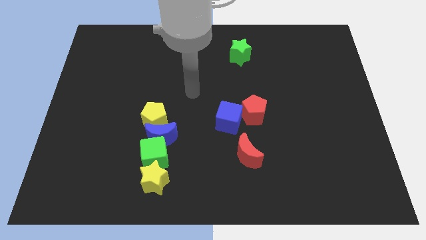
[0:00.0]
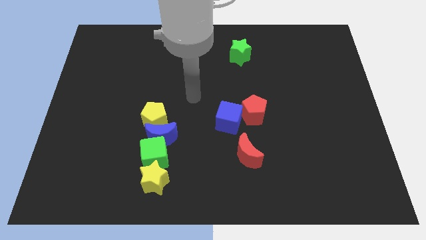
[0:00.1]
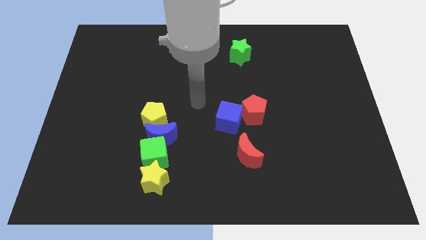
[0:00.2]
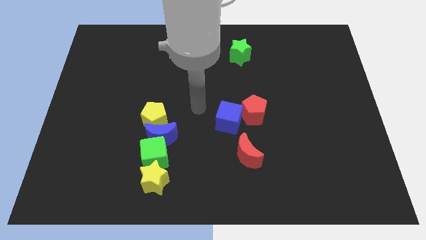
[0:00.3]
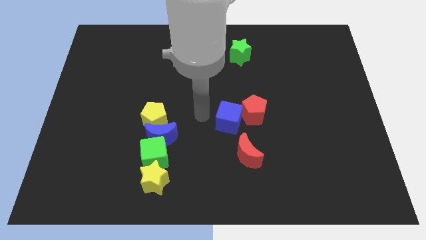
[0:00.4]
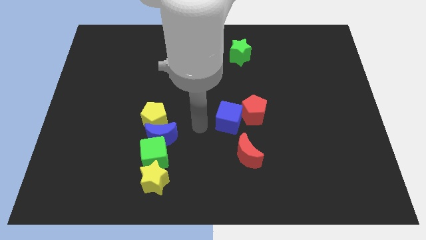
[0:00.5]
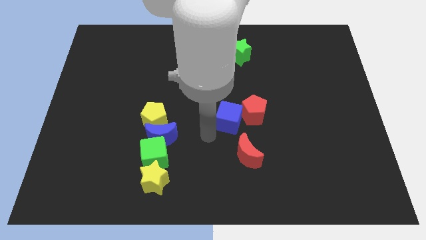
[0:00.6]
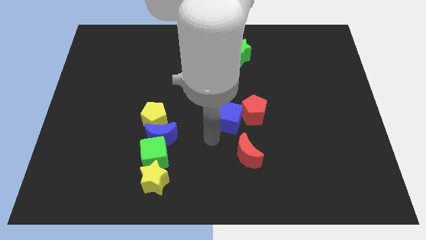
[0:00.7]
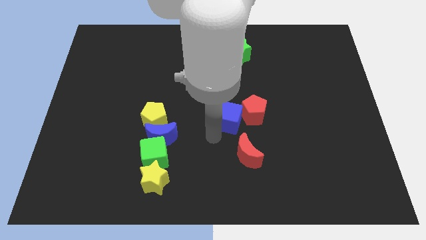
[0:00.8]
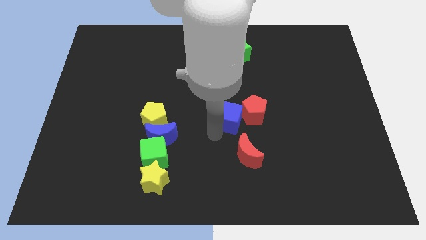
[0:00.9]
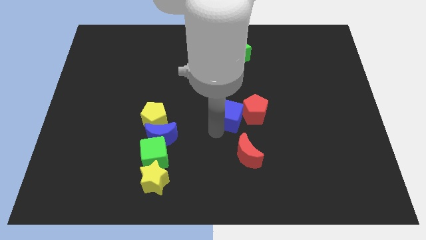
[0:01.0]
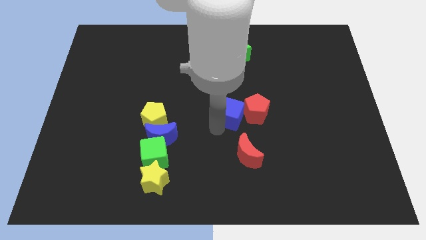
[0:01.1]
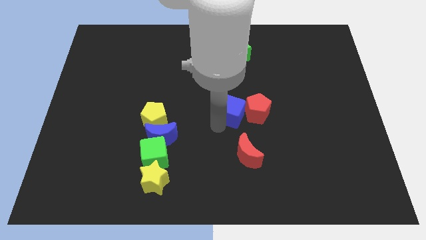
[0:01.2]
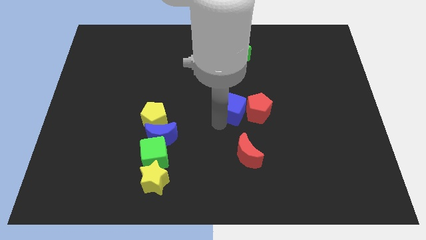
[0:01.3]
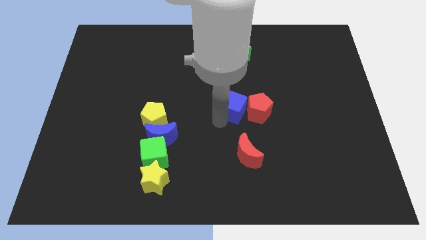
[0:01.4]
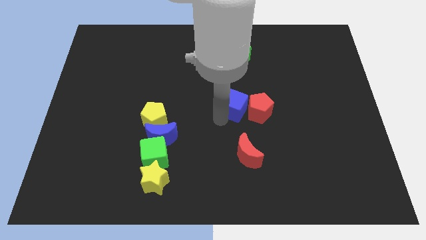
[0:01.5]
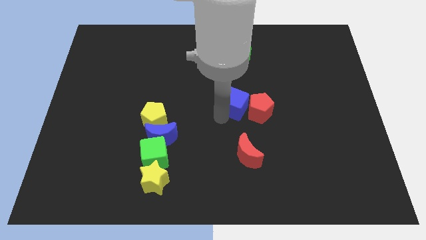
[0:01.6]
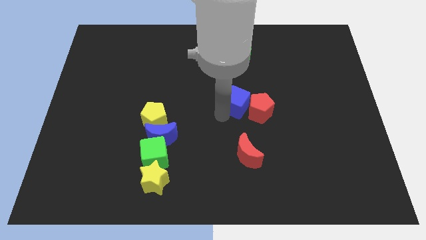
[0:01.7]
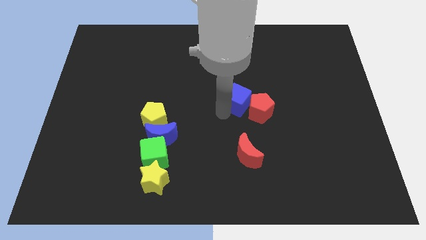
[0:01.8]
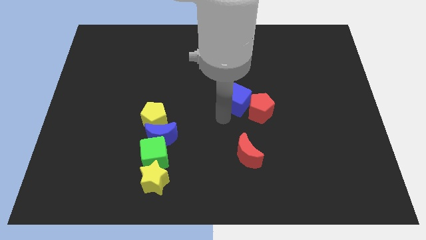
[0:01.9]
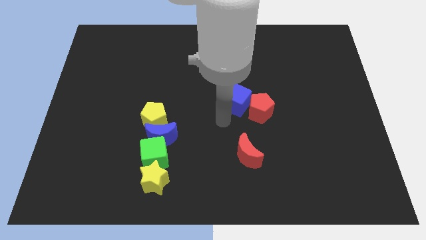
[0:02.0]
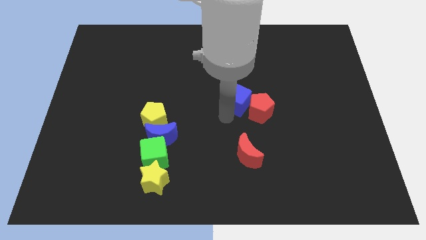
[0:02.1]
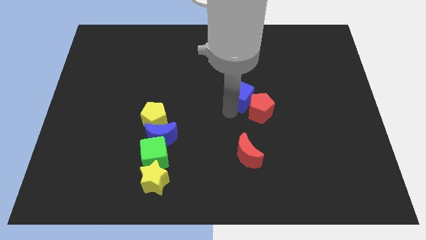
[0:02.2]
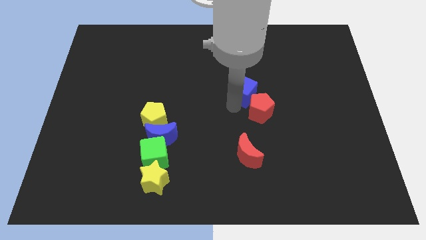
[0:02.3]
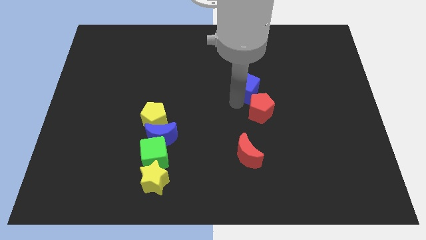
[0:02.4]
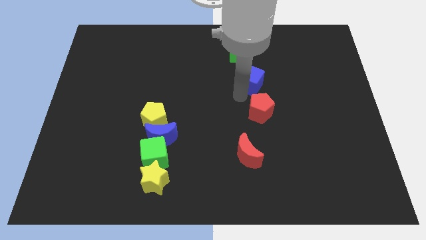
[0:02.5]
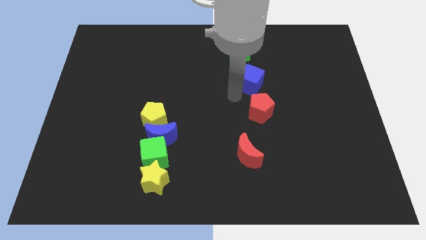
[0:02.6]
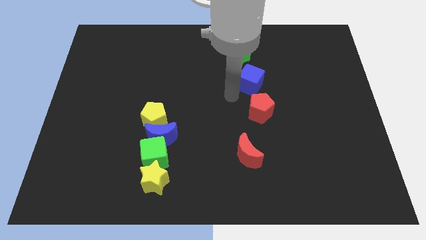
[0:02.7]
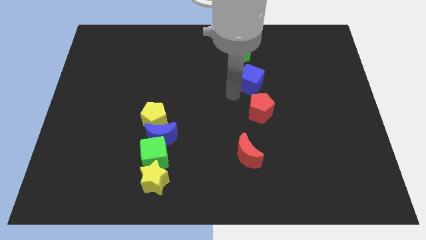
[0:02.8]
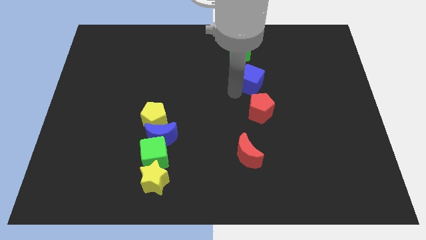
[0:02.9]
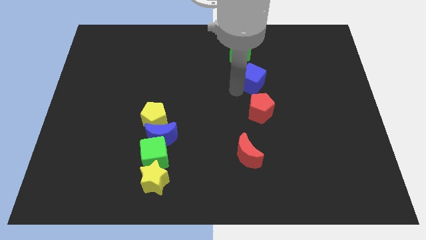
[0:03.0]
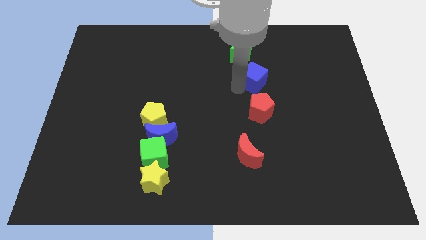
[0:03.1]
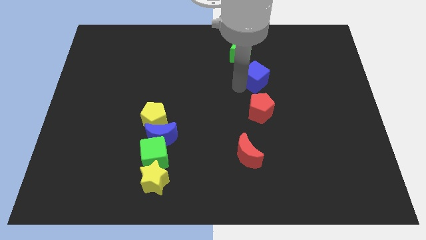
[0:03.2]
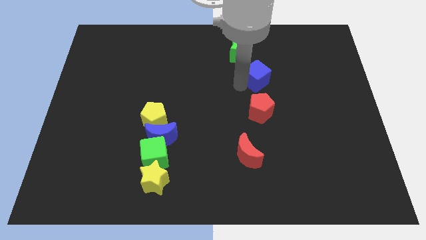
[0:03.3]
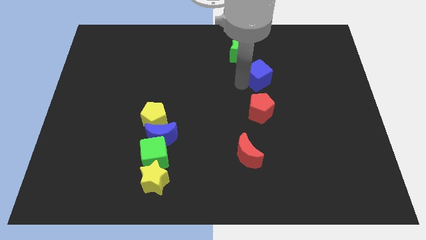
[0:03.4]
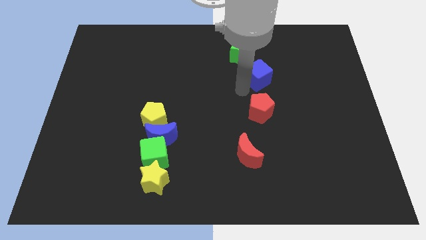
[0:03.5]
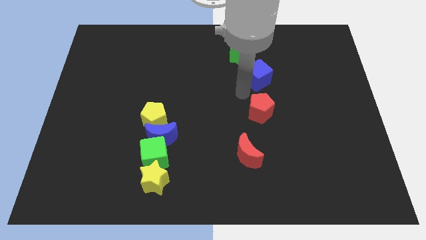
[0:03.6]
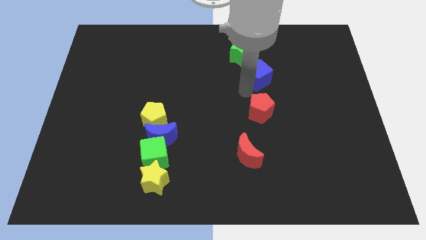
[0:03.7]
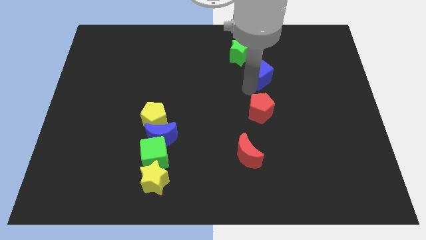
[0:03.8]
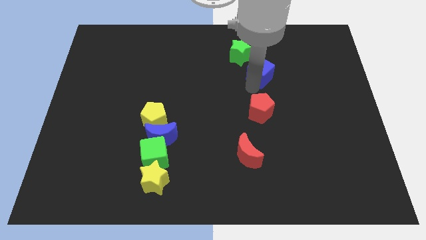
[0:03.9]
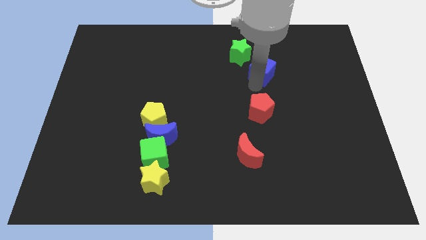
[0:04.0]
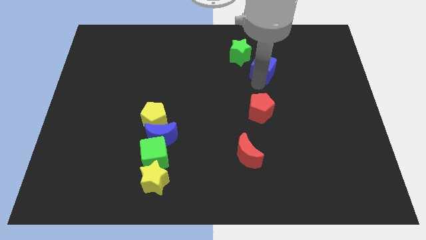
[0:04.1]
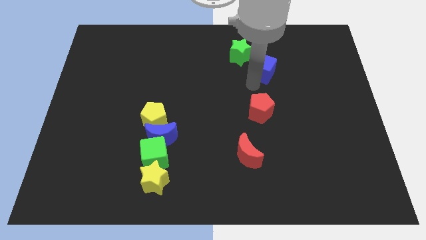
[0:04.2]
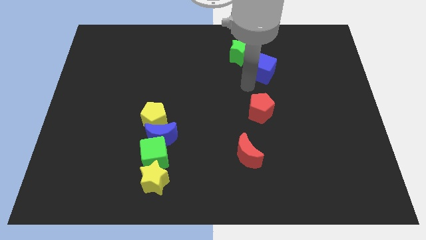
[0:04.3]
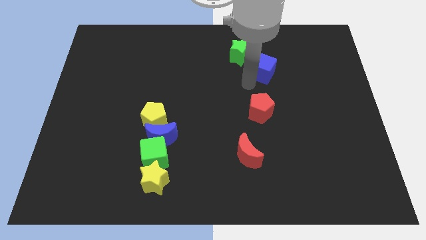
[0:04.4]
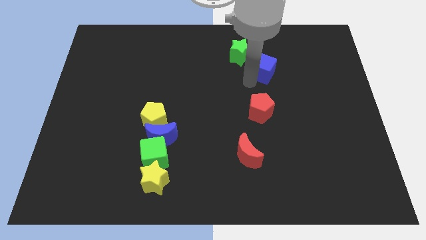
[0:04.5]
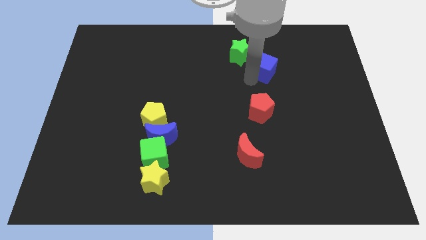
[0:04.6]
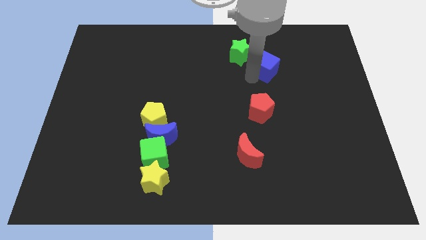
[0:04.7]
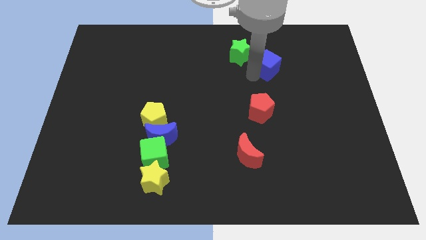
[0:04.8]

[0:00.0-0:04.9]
put the blue cube to the right of the green star

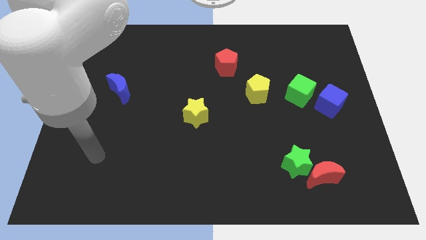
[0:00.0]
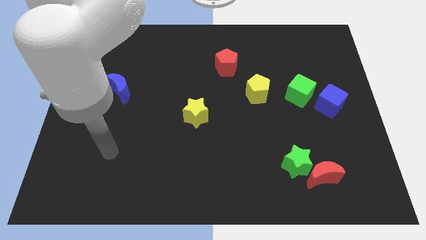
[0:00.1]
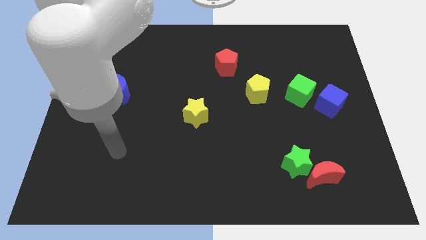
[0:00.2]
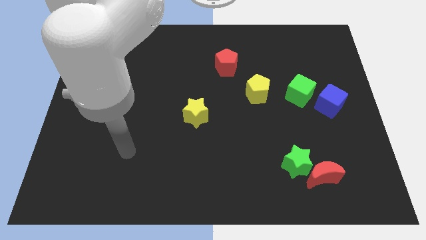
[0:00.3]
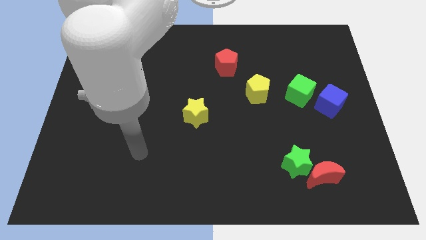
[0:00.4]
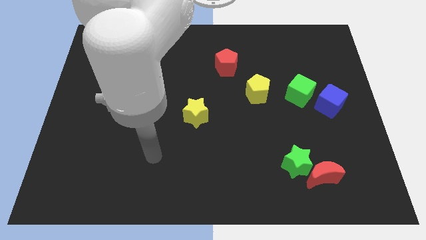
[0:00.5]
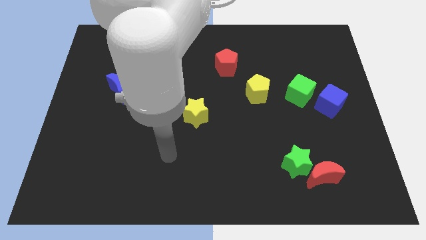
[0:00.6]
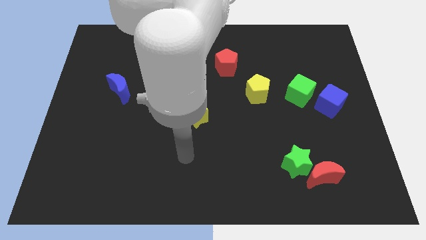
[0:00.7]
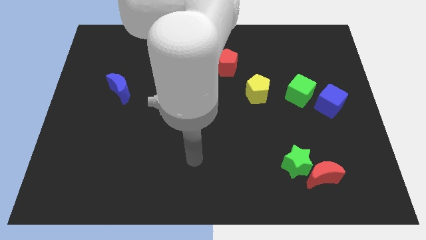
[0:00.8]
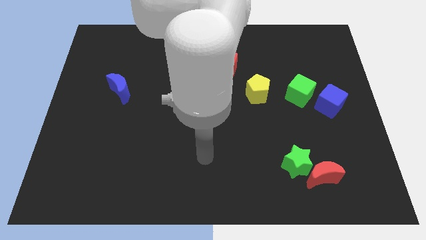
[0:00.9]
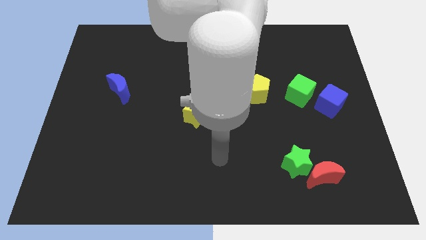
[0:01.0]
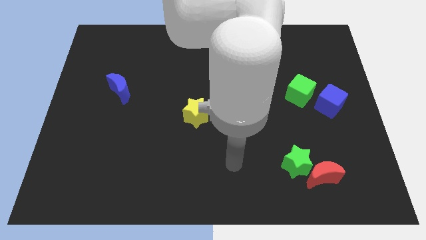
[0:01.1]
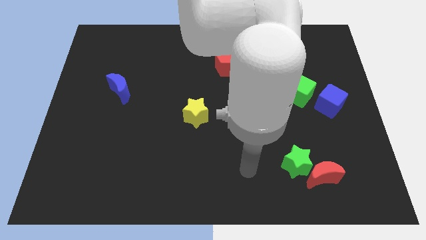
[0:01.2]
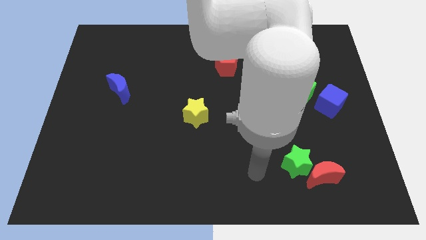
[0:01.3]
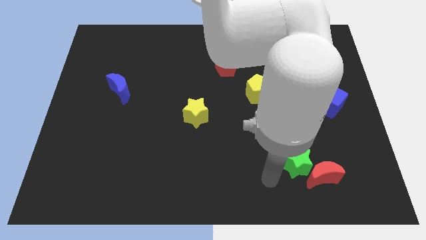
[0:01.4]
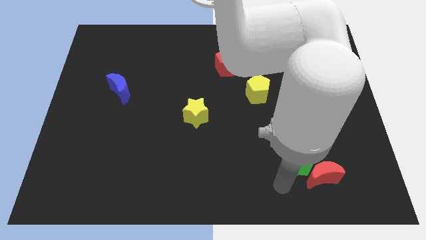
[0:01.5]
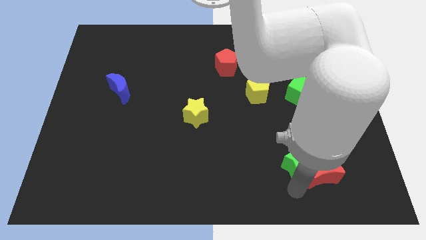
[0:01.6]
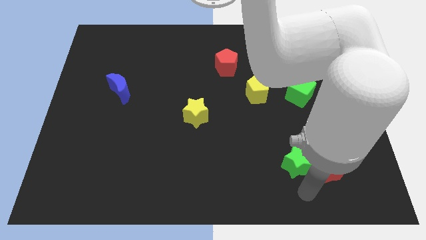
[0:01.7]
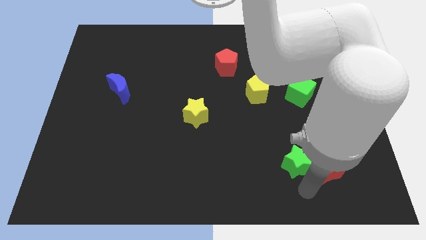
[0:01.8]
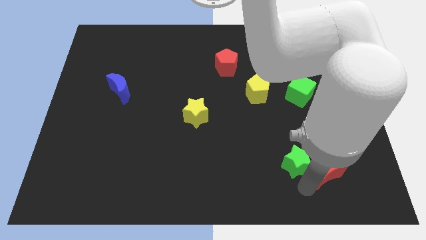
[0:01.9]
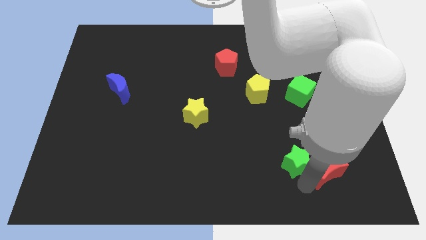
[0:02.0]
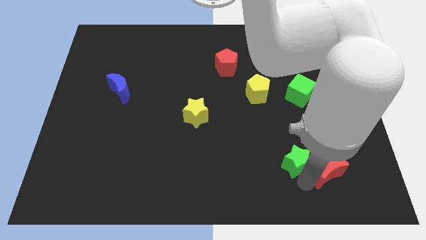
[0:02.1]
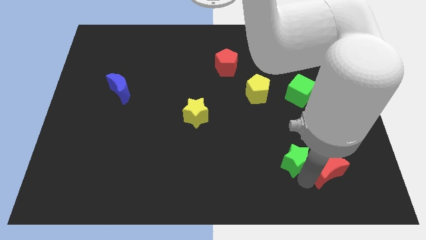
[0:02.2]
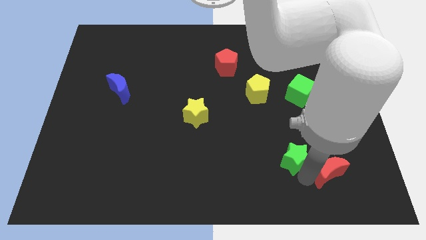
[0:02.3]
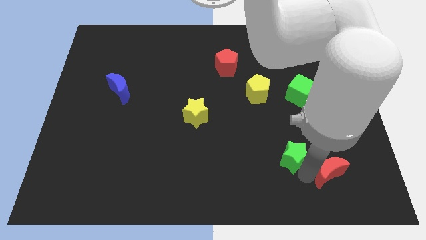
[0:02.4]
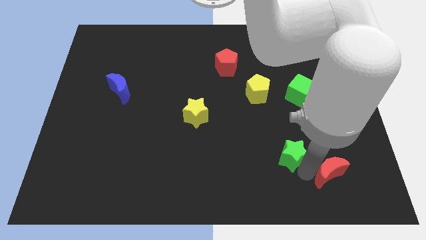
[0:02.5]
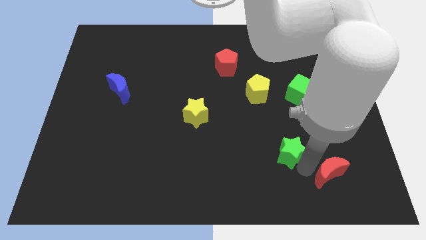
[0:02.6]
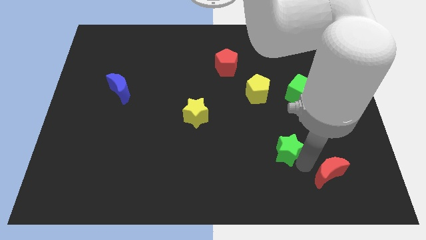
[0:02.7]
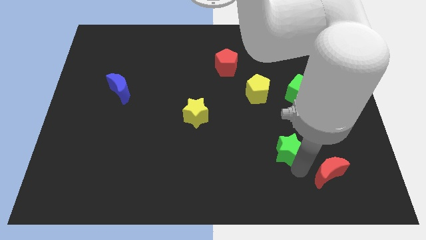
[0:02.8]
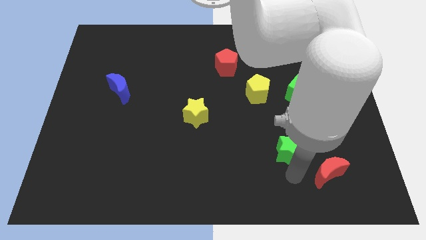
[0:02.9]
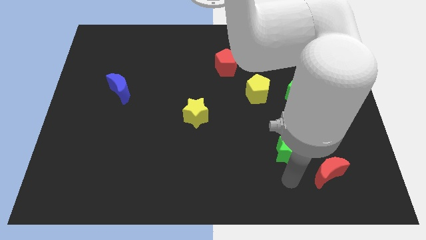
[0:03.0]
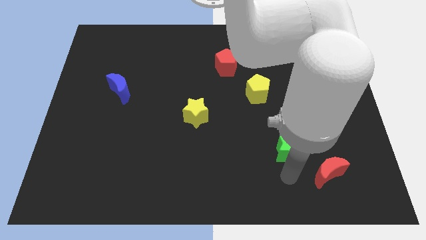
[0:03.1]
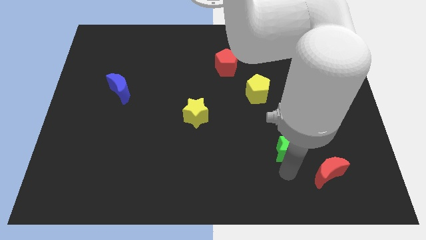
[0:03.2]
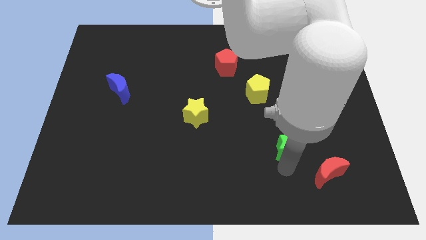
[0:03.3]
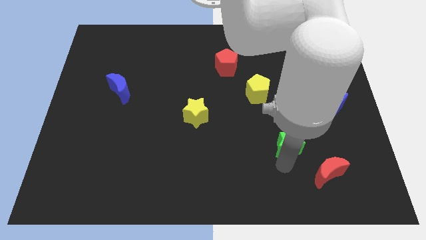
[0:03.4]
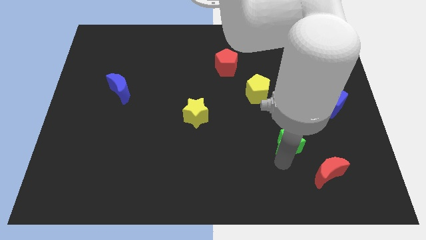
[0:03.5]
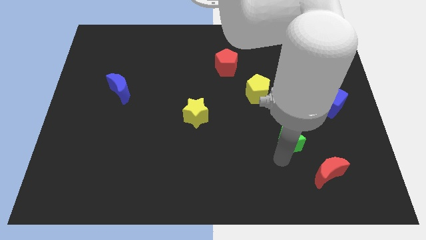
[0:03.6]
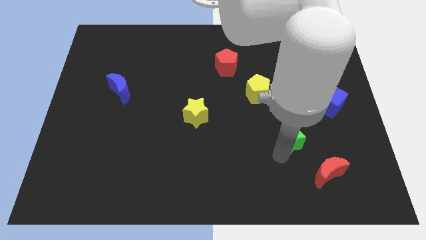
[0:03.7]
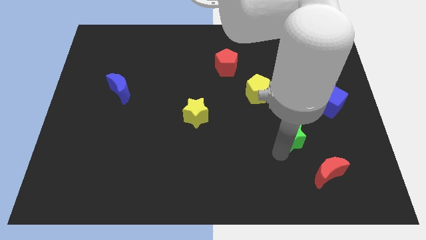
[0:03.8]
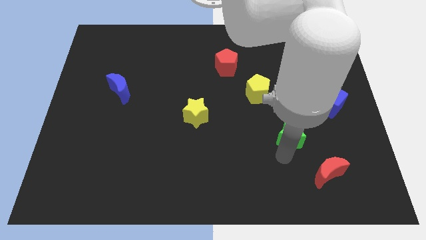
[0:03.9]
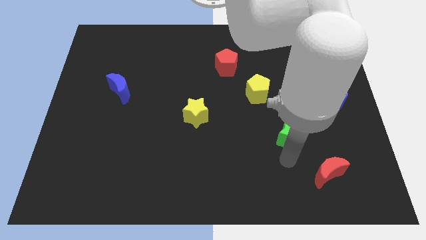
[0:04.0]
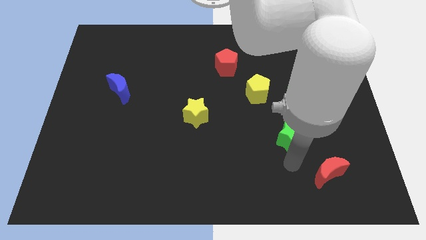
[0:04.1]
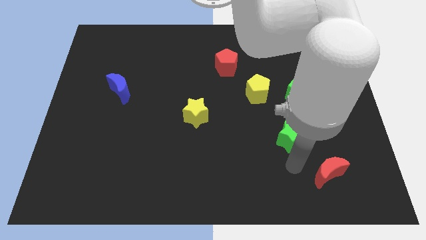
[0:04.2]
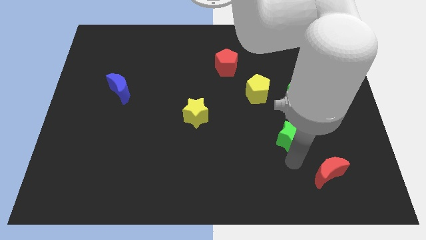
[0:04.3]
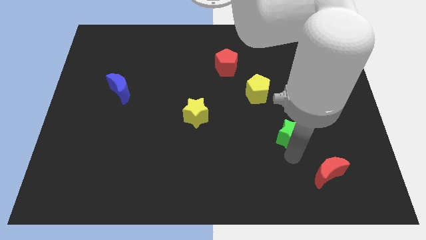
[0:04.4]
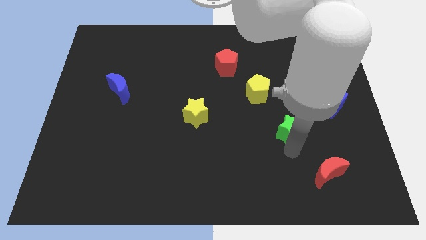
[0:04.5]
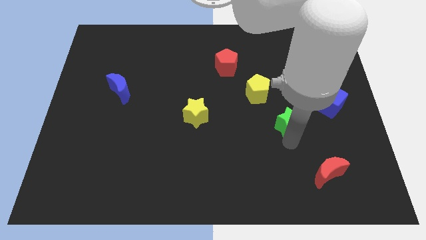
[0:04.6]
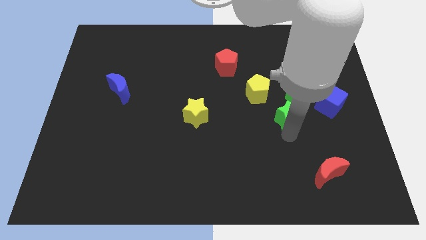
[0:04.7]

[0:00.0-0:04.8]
push the green star to the left side of the blue cube
